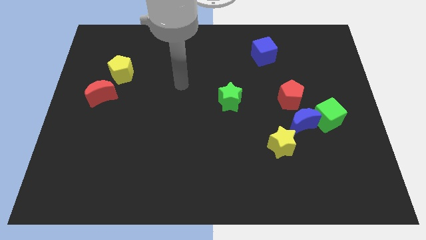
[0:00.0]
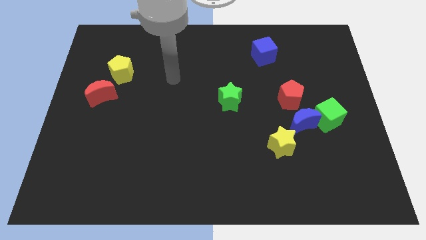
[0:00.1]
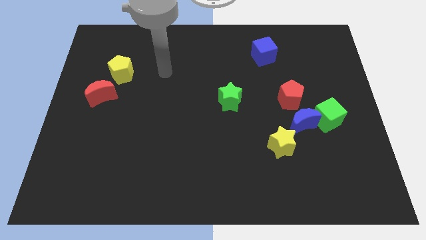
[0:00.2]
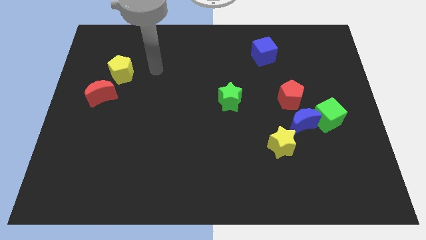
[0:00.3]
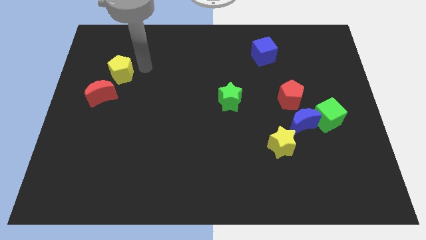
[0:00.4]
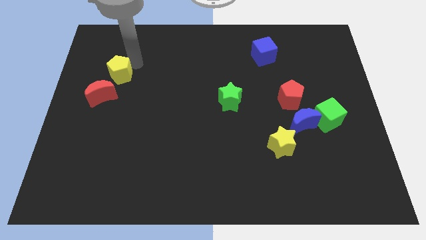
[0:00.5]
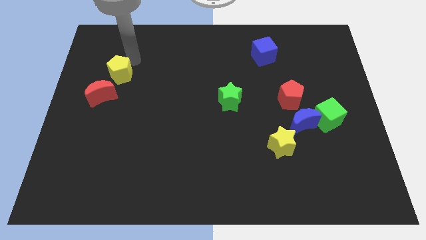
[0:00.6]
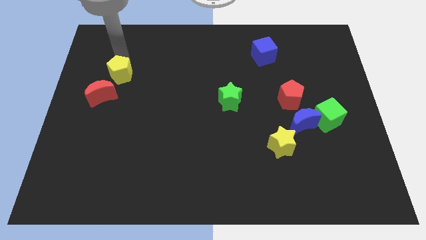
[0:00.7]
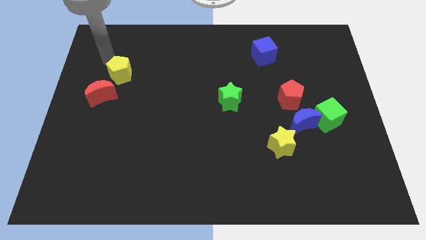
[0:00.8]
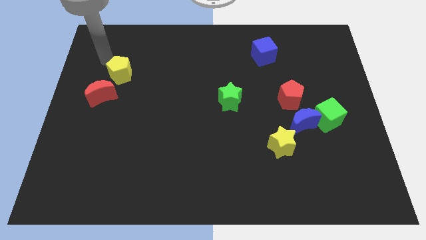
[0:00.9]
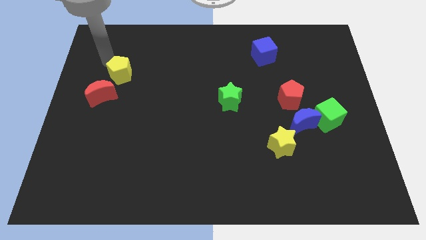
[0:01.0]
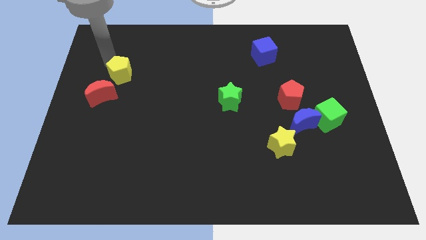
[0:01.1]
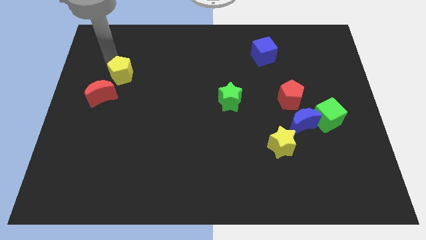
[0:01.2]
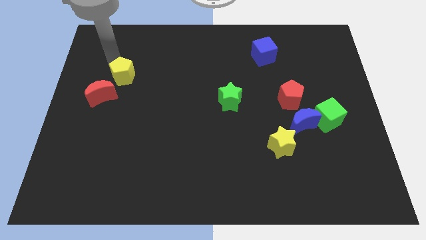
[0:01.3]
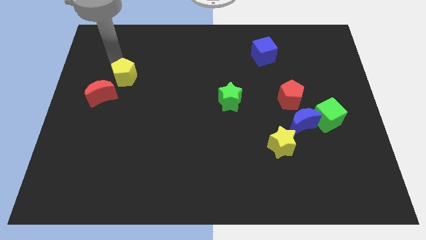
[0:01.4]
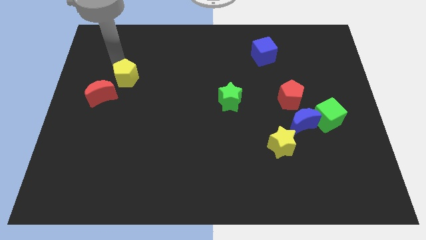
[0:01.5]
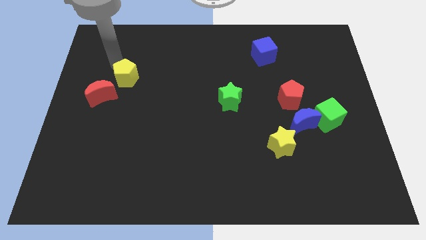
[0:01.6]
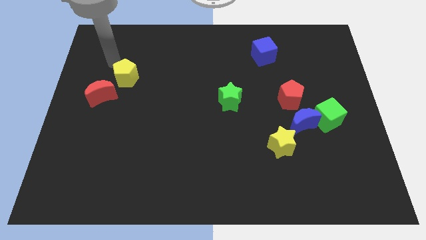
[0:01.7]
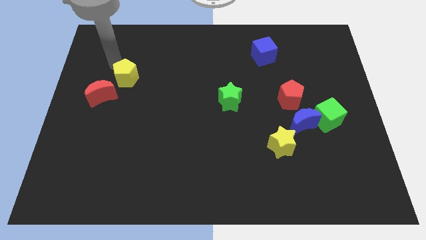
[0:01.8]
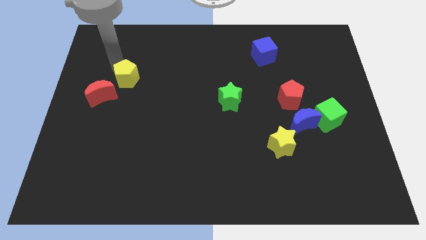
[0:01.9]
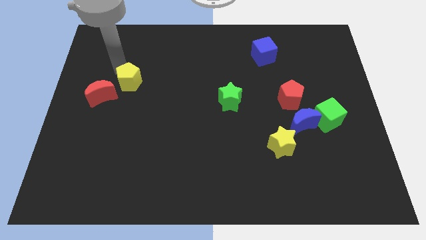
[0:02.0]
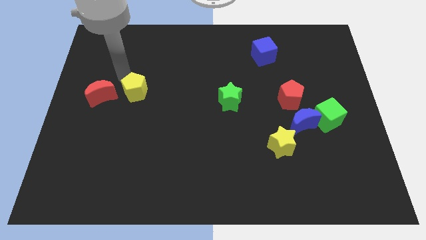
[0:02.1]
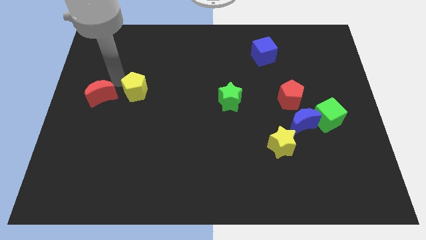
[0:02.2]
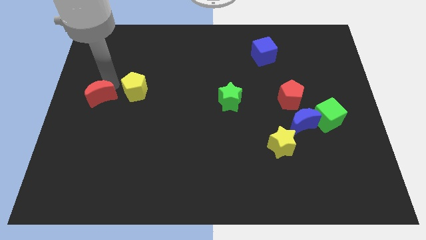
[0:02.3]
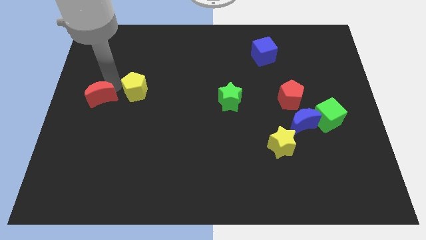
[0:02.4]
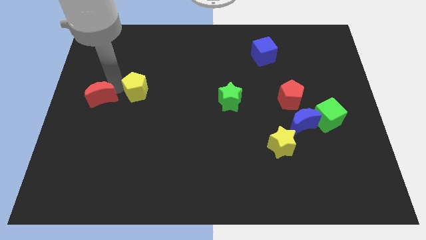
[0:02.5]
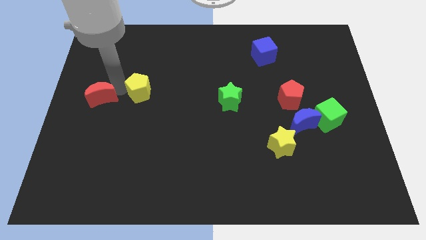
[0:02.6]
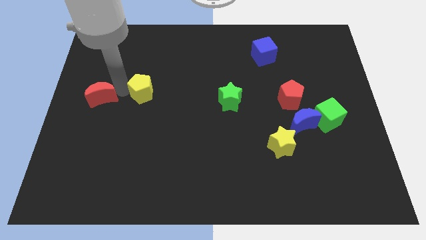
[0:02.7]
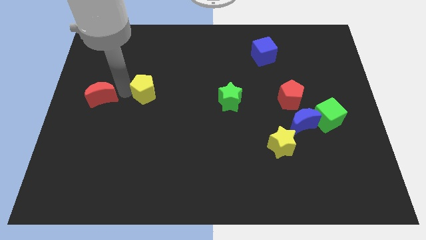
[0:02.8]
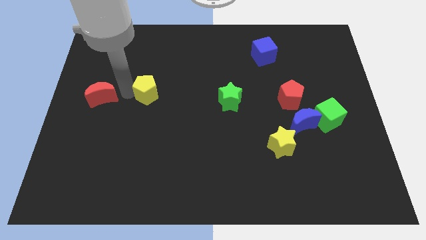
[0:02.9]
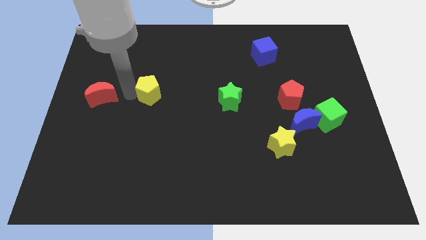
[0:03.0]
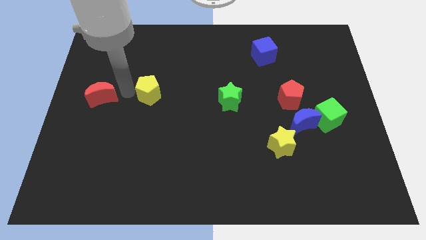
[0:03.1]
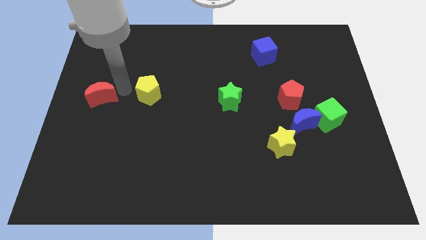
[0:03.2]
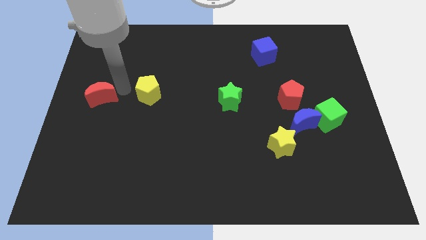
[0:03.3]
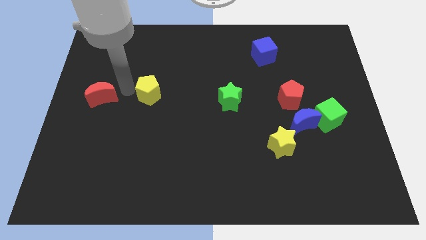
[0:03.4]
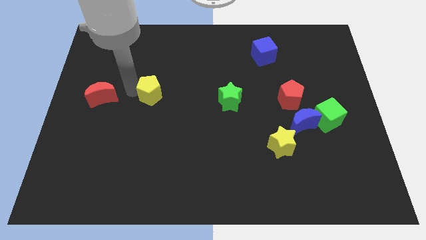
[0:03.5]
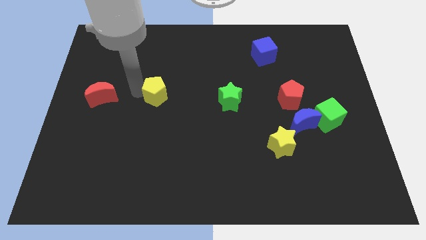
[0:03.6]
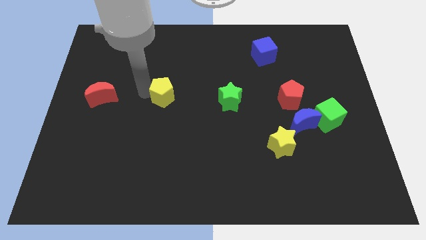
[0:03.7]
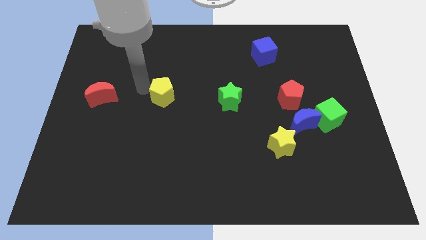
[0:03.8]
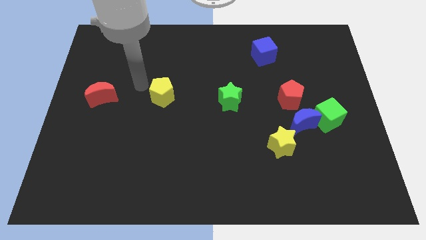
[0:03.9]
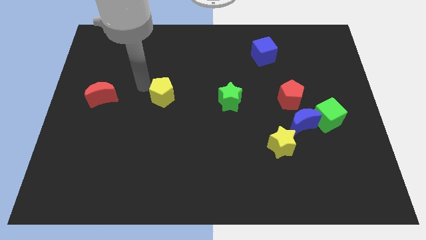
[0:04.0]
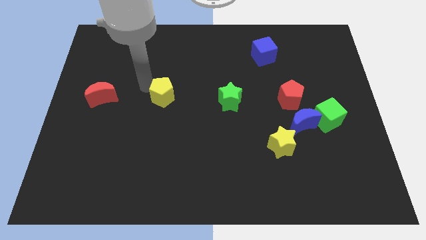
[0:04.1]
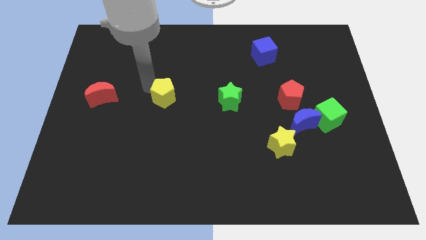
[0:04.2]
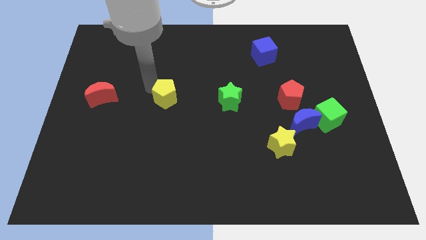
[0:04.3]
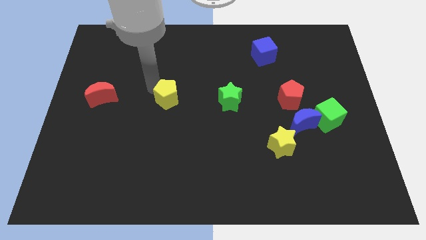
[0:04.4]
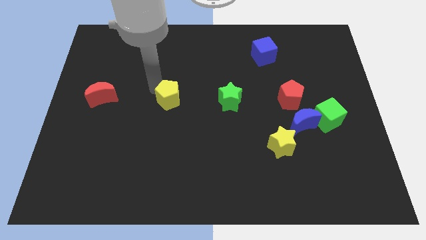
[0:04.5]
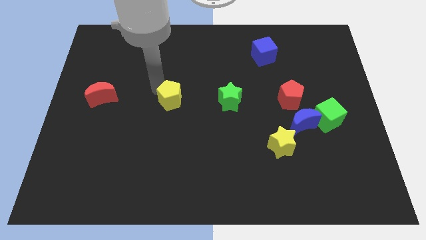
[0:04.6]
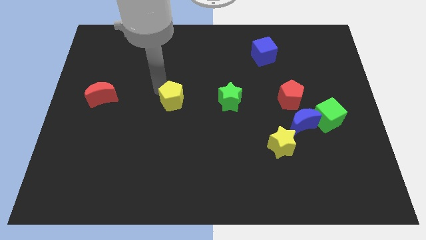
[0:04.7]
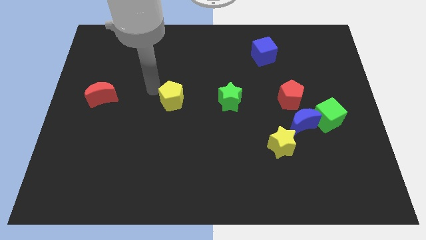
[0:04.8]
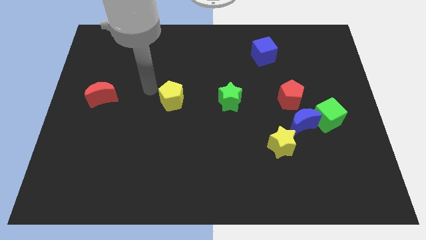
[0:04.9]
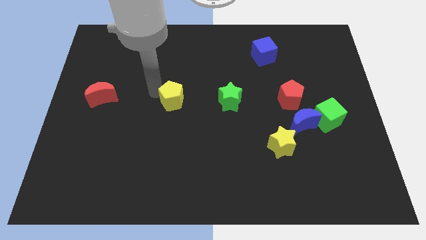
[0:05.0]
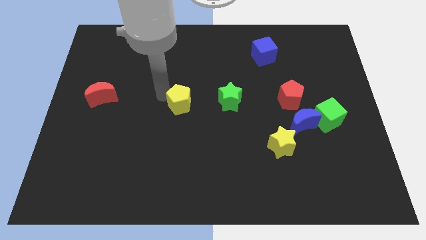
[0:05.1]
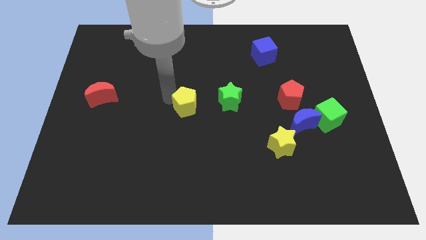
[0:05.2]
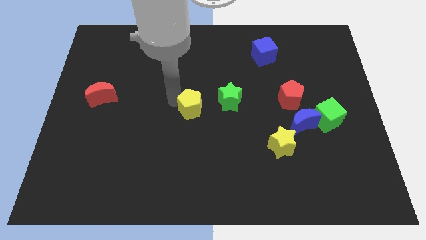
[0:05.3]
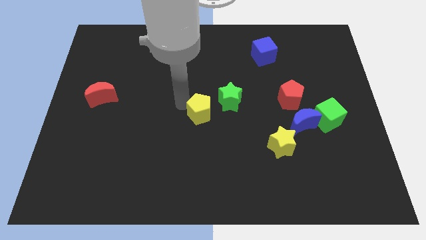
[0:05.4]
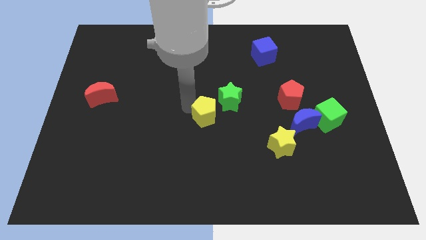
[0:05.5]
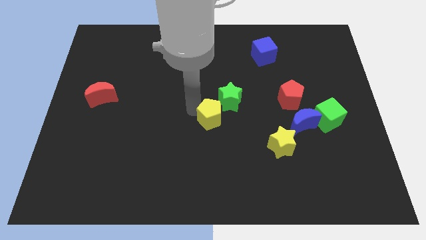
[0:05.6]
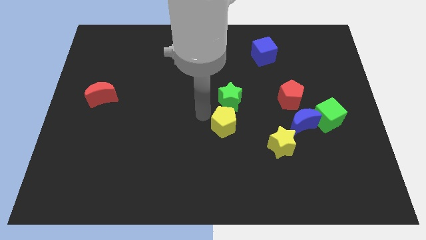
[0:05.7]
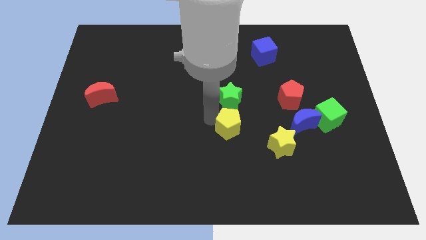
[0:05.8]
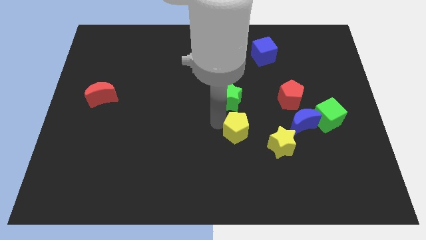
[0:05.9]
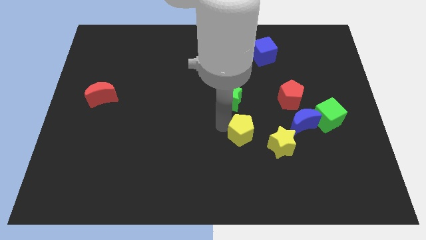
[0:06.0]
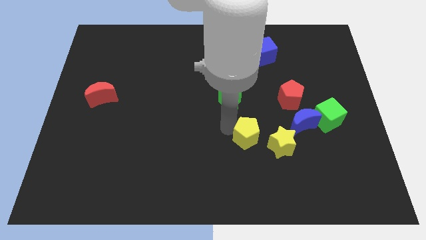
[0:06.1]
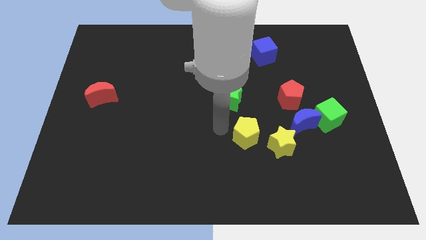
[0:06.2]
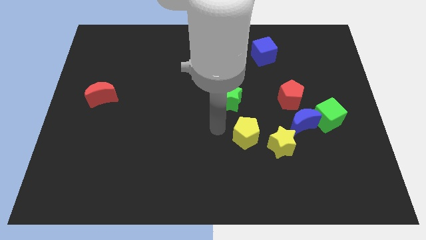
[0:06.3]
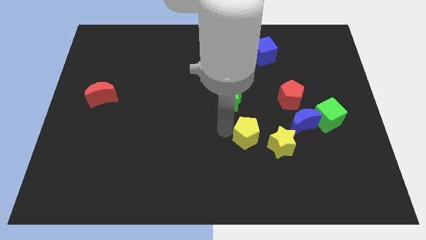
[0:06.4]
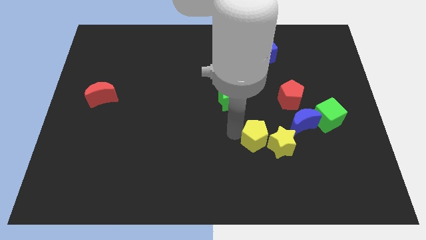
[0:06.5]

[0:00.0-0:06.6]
put the yellow pentagon next to the yellow star

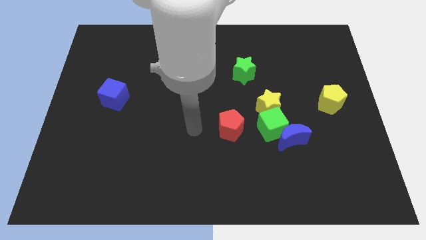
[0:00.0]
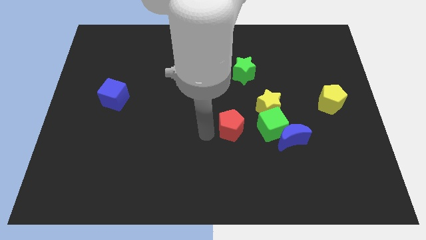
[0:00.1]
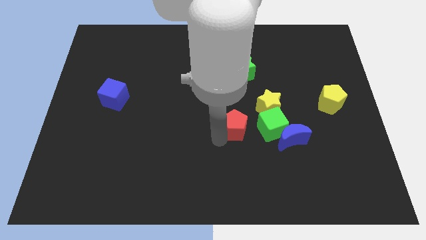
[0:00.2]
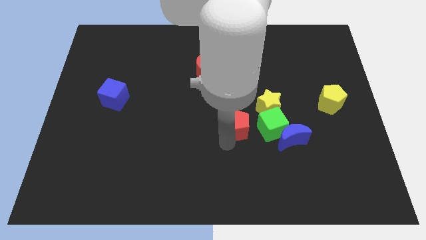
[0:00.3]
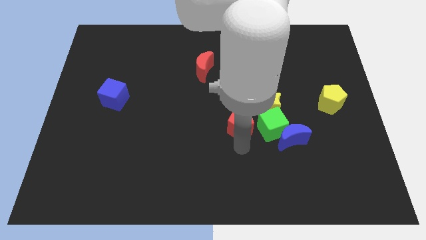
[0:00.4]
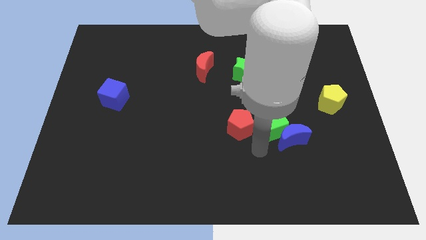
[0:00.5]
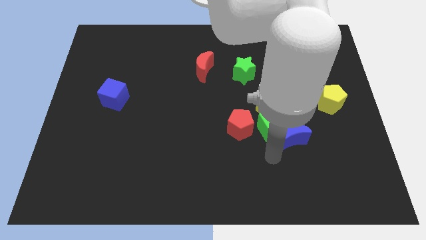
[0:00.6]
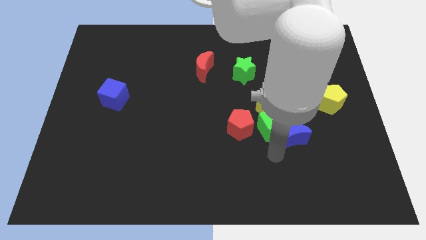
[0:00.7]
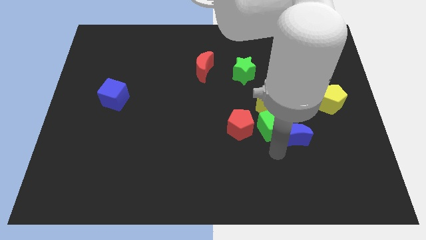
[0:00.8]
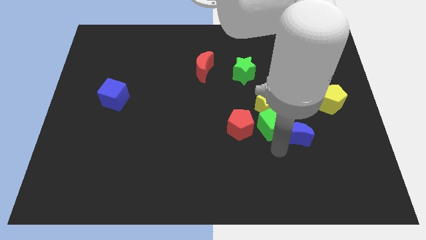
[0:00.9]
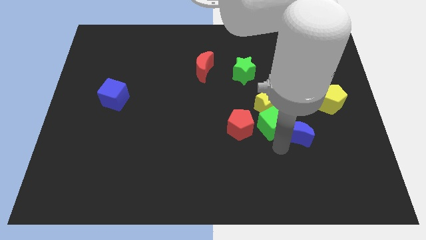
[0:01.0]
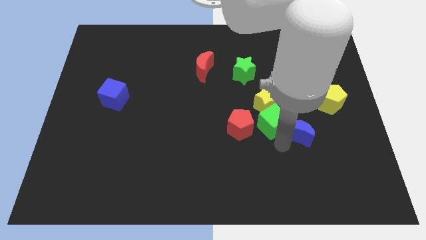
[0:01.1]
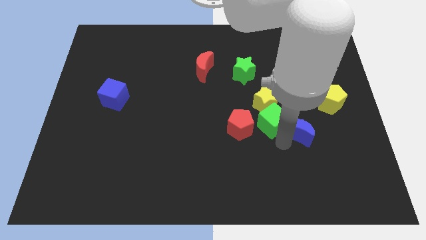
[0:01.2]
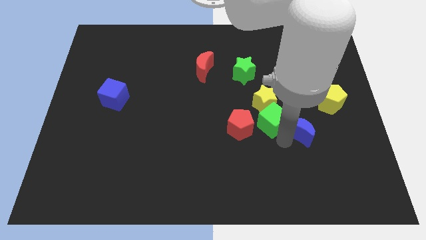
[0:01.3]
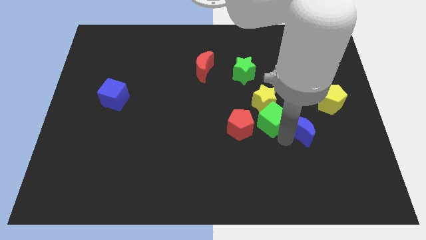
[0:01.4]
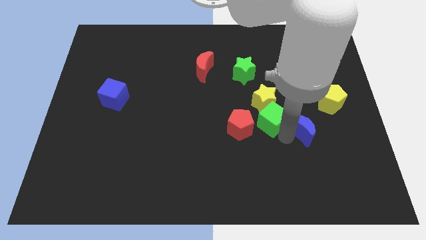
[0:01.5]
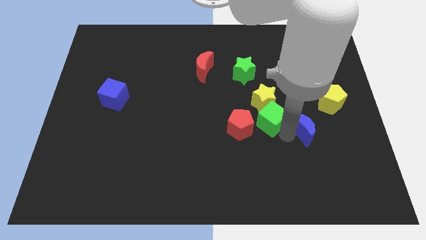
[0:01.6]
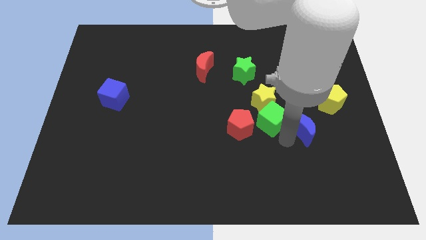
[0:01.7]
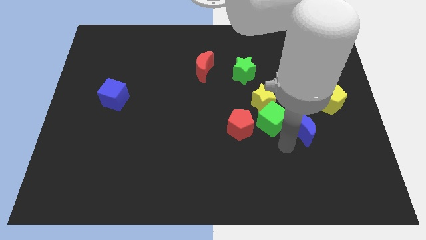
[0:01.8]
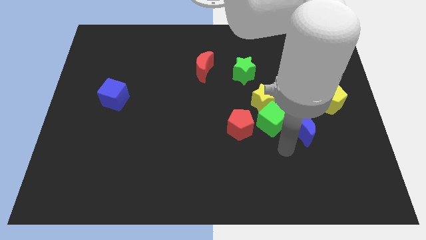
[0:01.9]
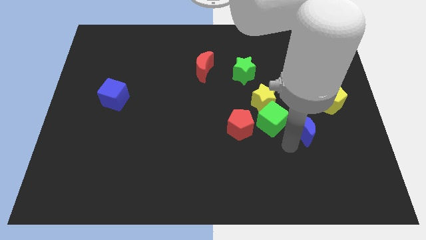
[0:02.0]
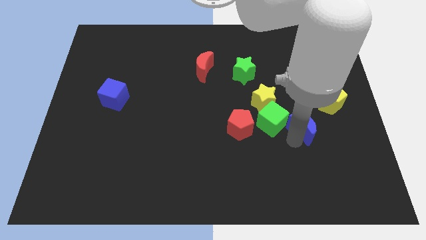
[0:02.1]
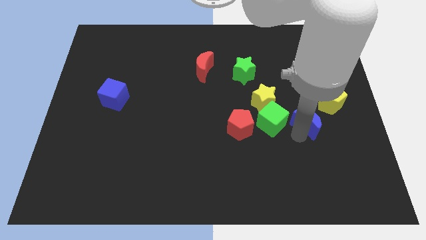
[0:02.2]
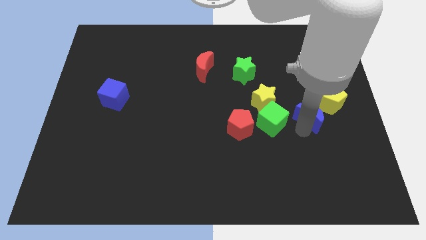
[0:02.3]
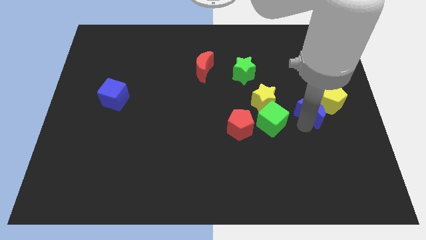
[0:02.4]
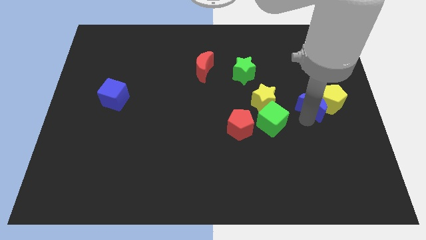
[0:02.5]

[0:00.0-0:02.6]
put the blue moon next to the yellow pentagon
